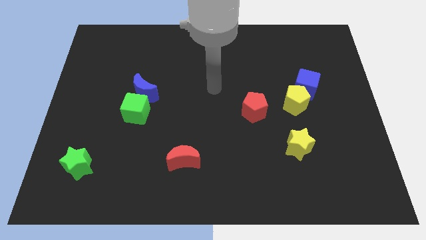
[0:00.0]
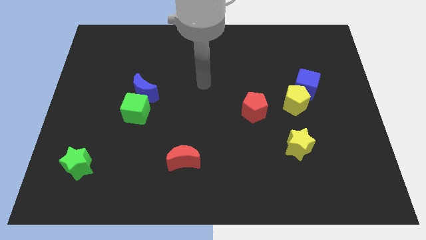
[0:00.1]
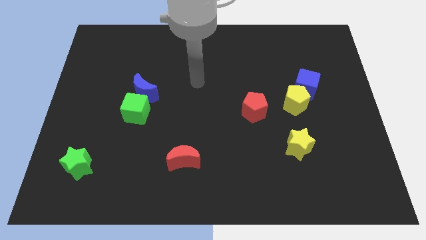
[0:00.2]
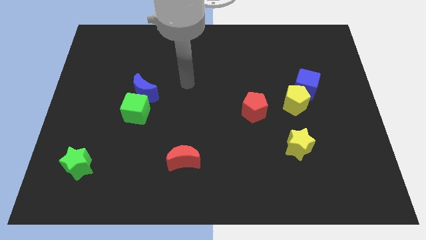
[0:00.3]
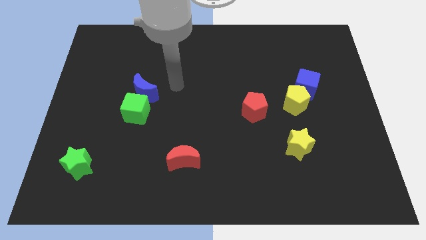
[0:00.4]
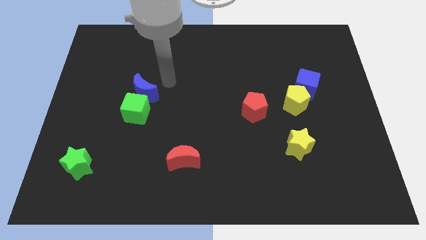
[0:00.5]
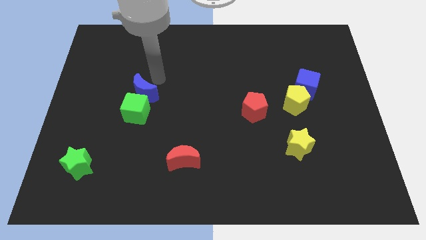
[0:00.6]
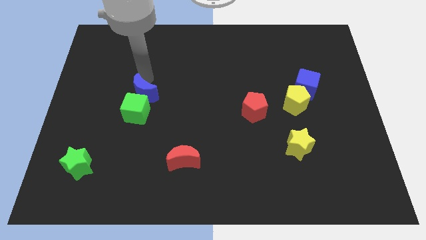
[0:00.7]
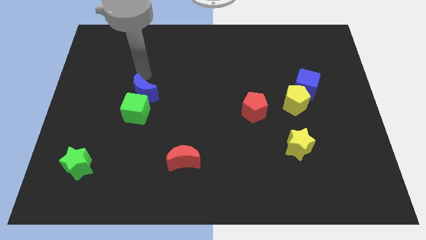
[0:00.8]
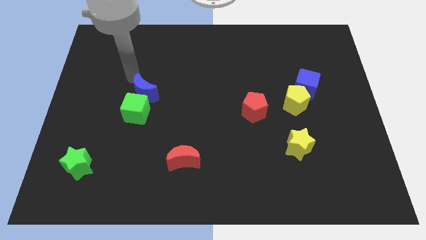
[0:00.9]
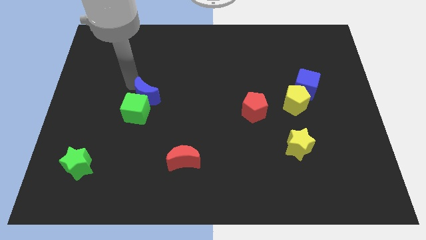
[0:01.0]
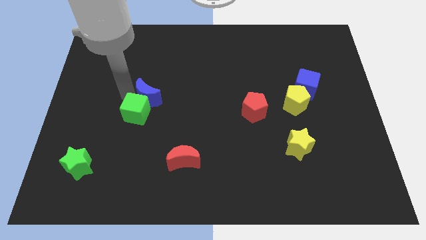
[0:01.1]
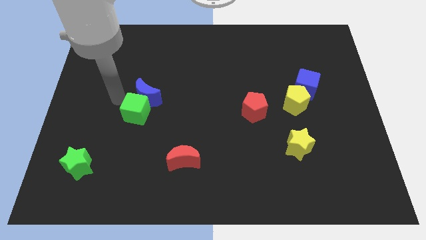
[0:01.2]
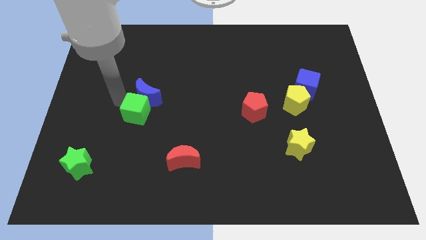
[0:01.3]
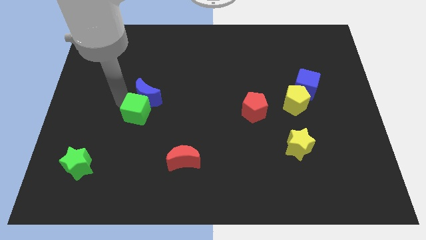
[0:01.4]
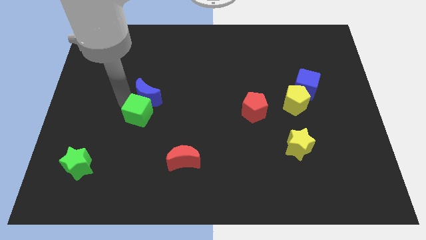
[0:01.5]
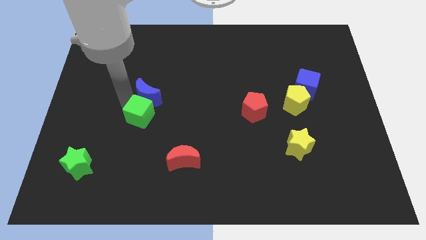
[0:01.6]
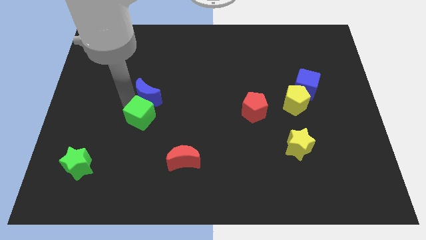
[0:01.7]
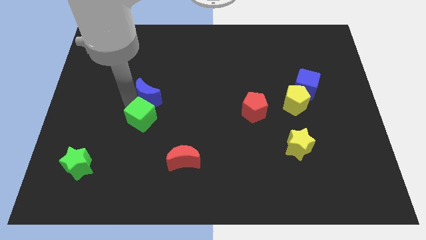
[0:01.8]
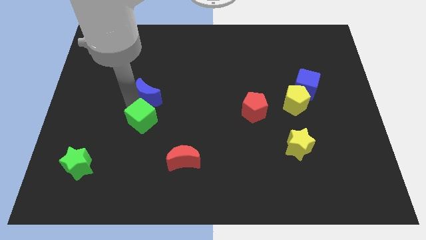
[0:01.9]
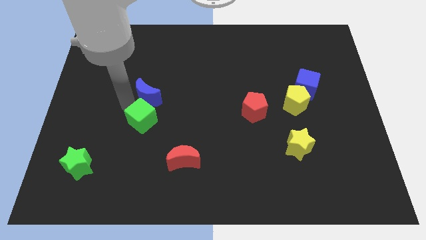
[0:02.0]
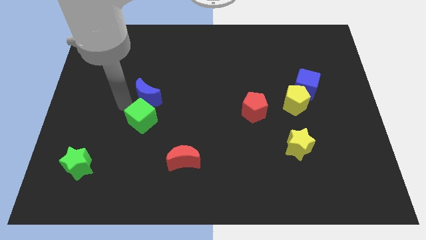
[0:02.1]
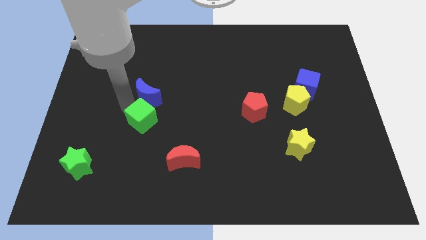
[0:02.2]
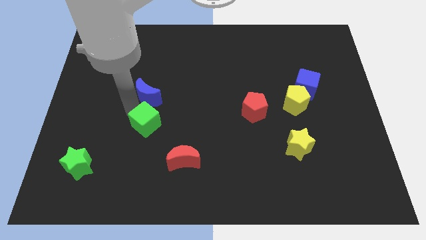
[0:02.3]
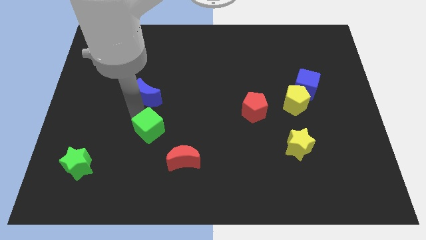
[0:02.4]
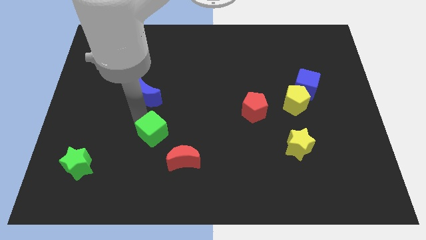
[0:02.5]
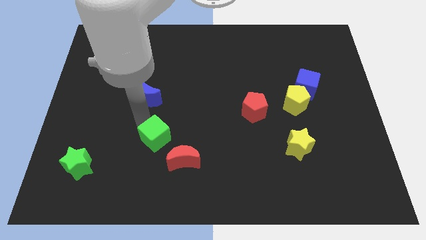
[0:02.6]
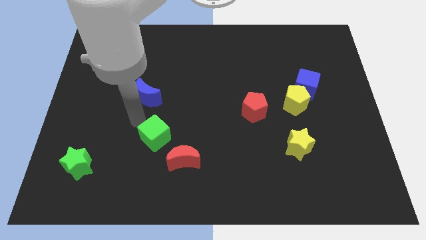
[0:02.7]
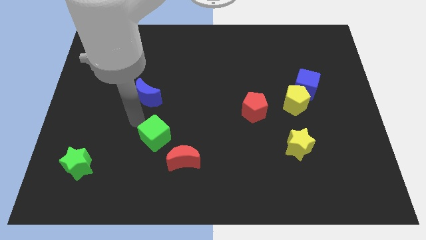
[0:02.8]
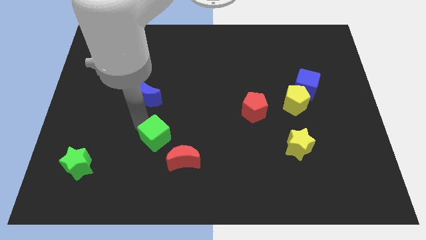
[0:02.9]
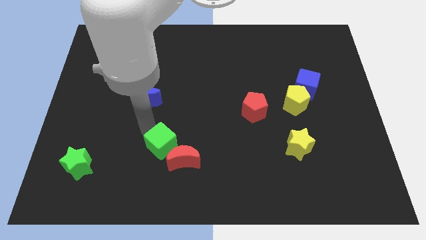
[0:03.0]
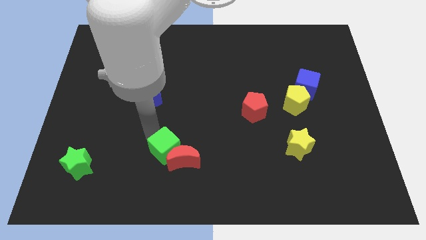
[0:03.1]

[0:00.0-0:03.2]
push the green cube next to the red moon

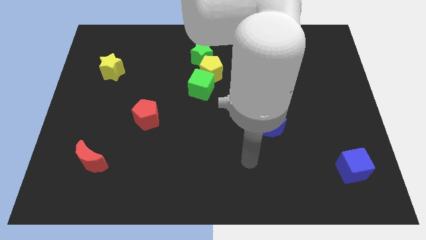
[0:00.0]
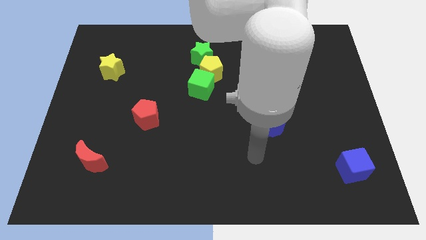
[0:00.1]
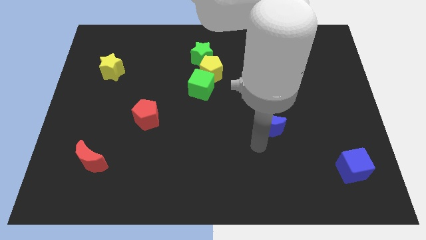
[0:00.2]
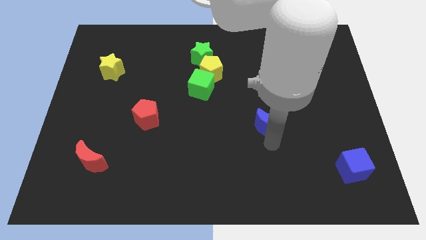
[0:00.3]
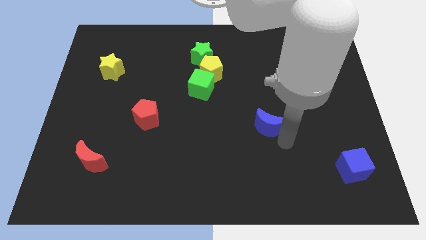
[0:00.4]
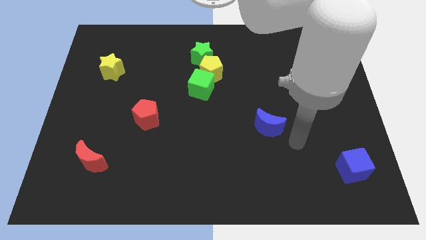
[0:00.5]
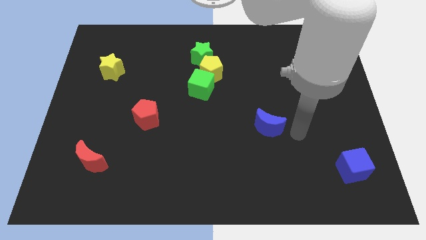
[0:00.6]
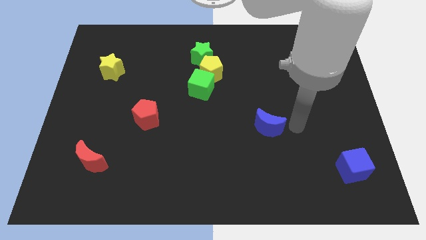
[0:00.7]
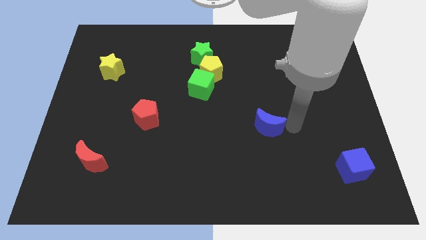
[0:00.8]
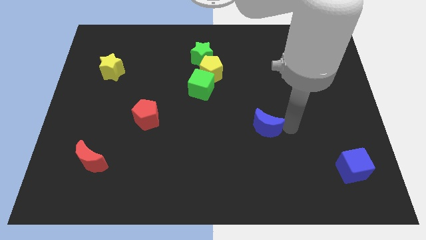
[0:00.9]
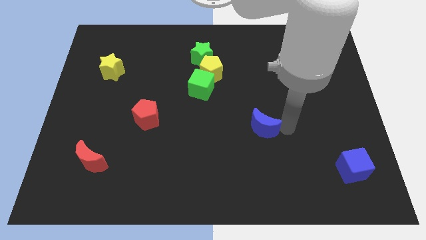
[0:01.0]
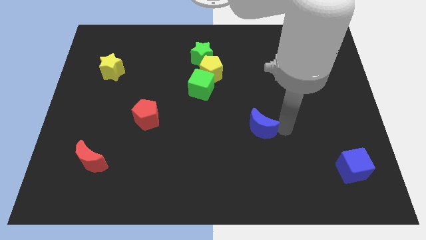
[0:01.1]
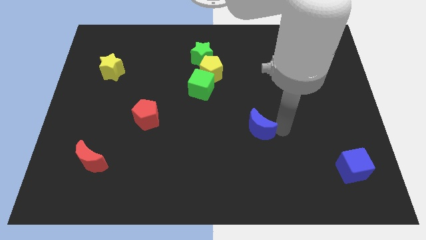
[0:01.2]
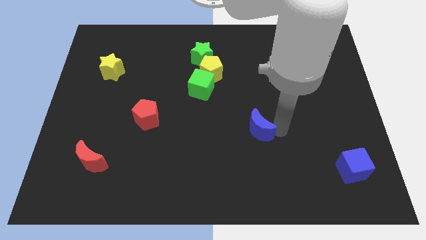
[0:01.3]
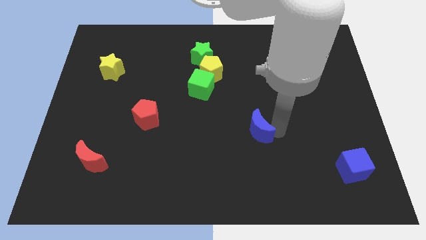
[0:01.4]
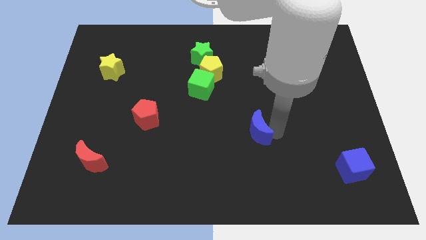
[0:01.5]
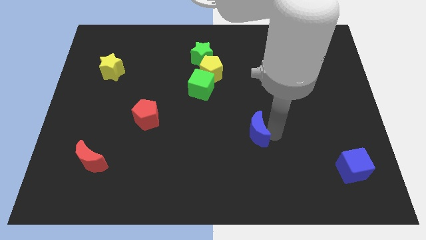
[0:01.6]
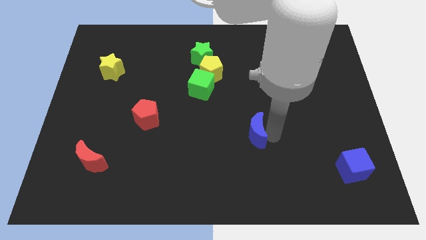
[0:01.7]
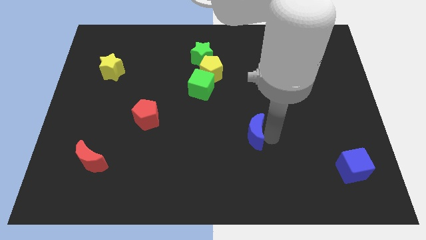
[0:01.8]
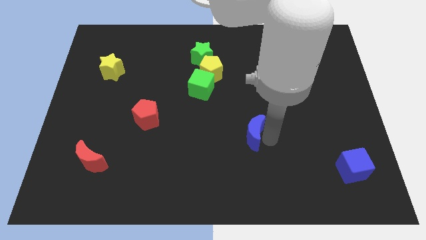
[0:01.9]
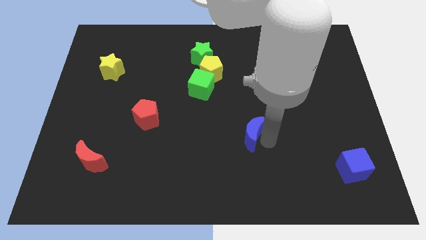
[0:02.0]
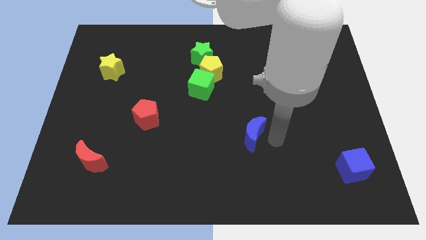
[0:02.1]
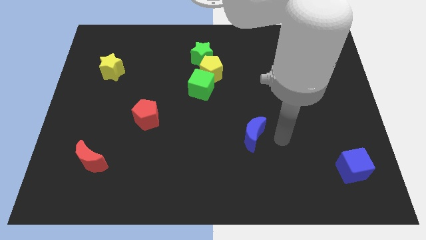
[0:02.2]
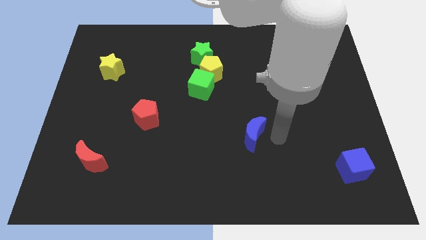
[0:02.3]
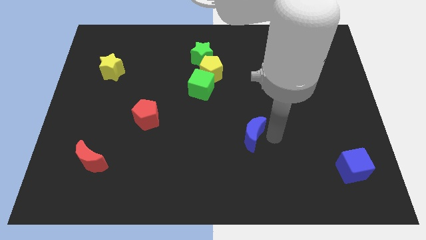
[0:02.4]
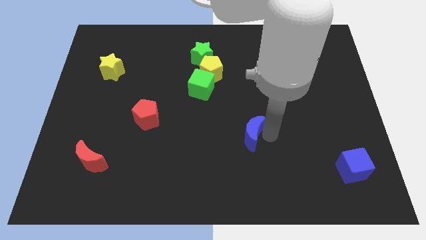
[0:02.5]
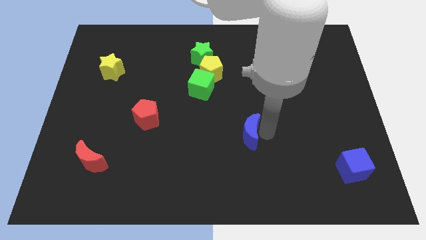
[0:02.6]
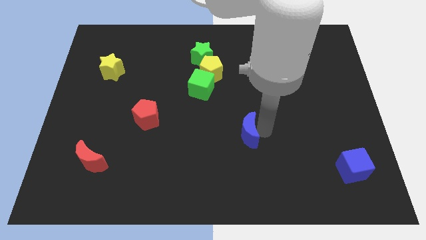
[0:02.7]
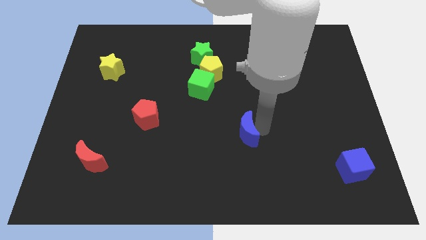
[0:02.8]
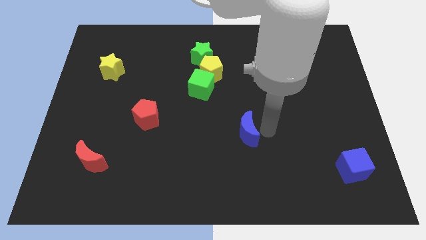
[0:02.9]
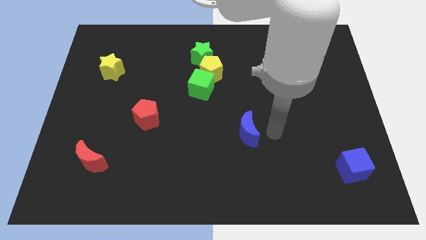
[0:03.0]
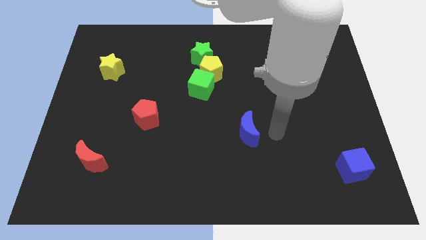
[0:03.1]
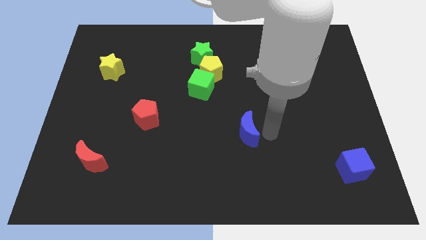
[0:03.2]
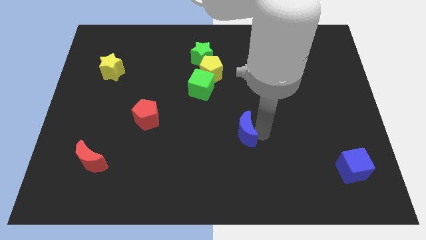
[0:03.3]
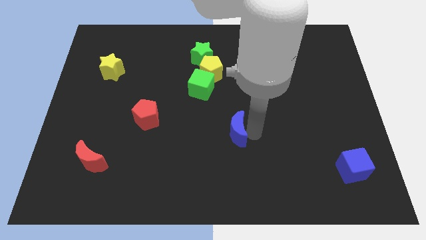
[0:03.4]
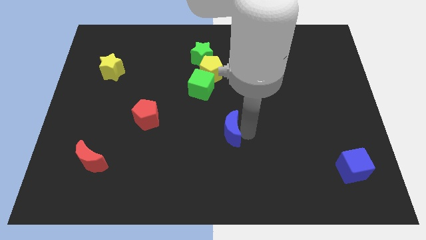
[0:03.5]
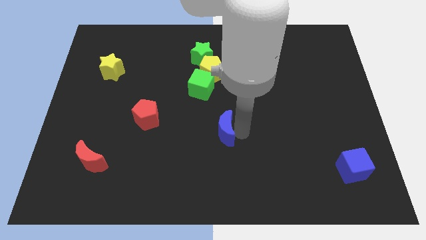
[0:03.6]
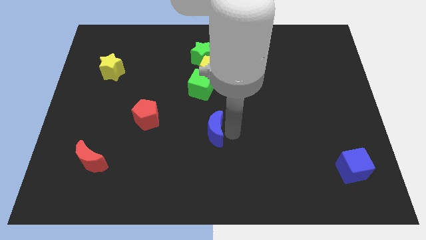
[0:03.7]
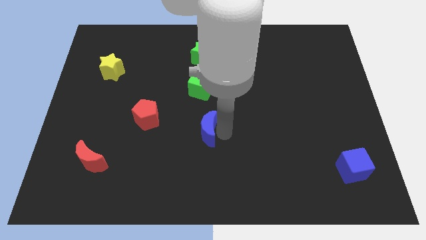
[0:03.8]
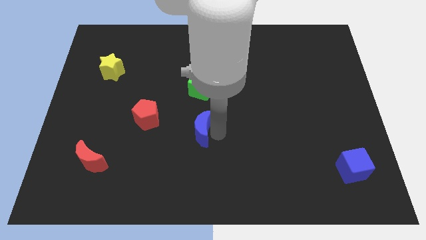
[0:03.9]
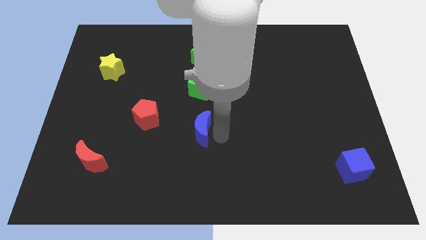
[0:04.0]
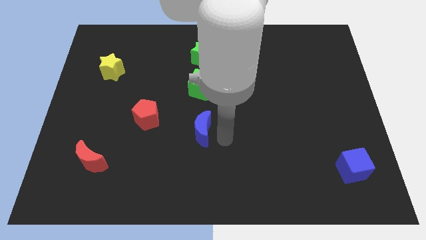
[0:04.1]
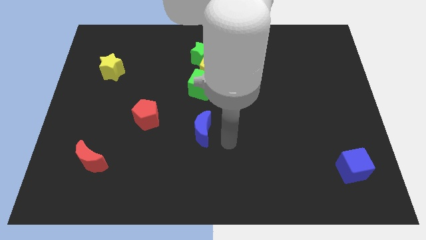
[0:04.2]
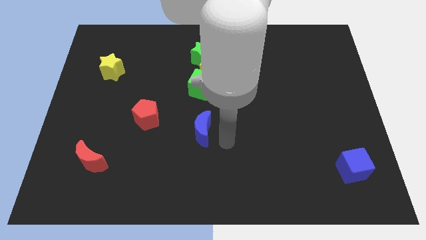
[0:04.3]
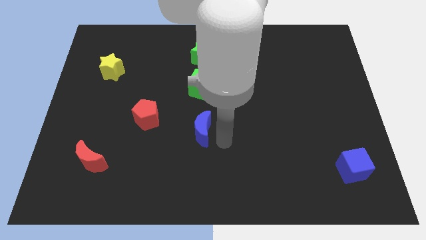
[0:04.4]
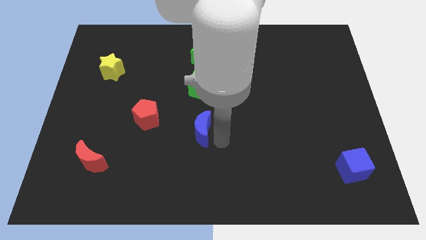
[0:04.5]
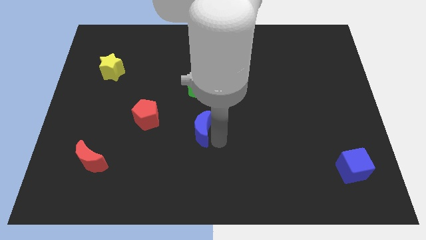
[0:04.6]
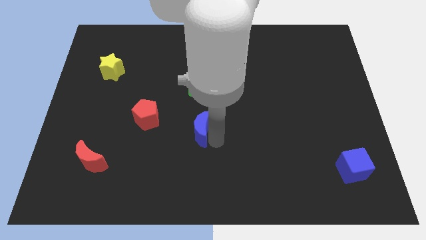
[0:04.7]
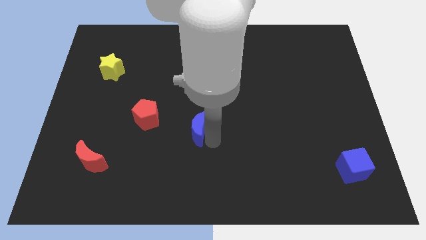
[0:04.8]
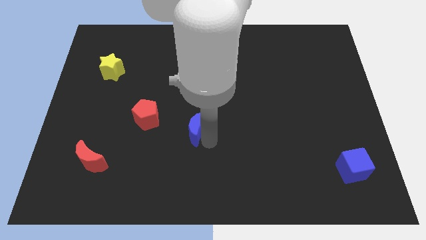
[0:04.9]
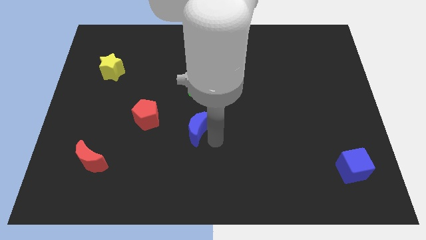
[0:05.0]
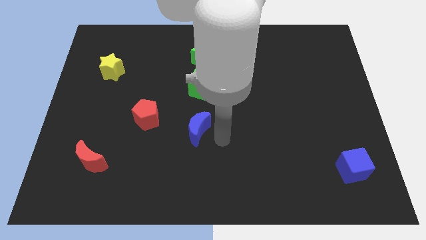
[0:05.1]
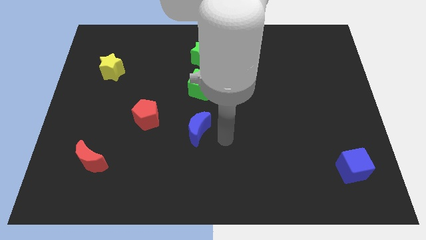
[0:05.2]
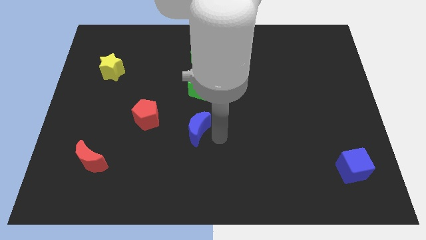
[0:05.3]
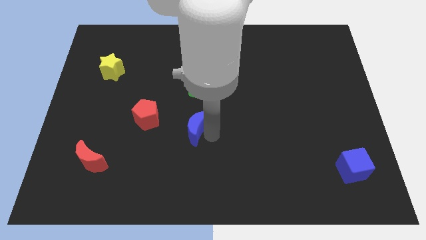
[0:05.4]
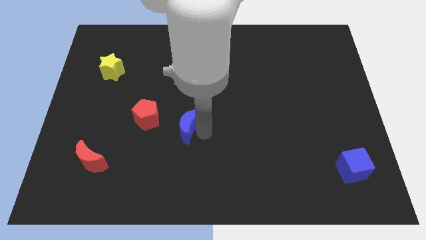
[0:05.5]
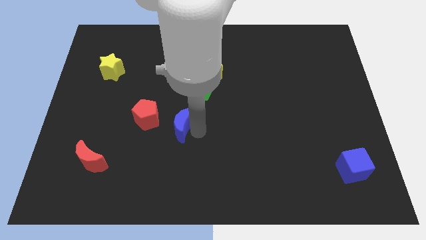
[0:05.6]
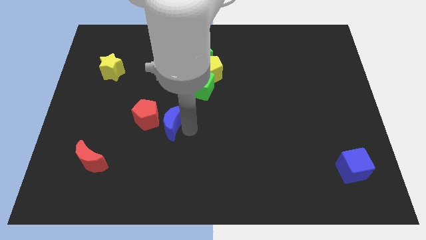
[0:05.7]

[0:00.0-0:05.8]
move the blue moon to the red pentagon
